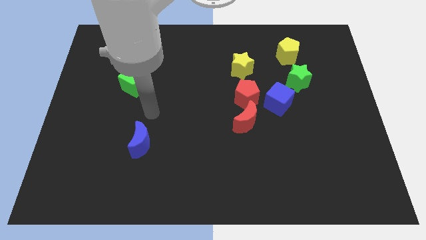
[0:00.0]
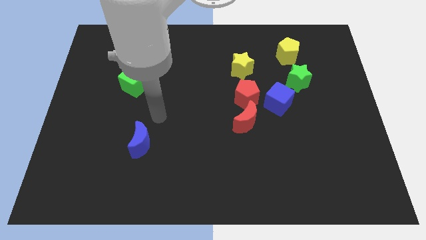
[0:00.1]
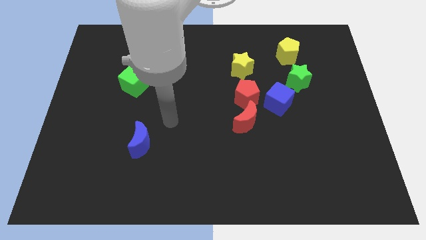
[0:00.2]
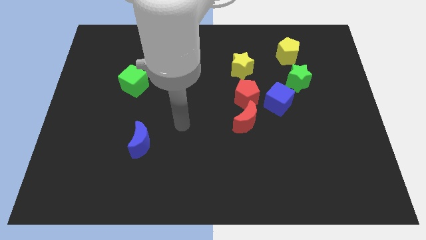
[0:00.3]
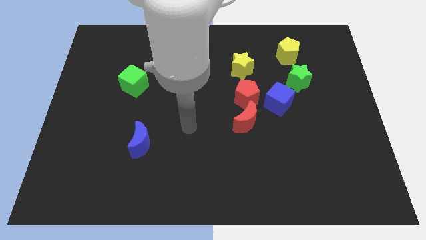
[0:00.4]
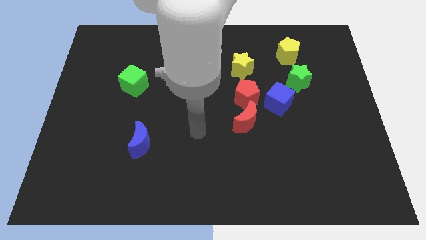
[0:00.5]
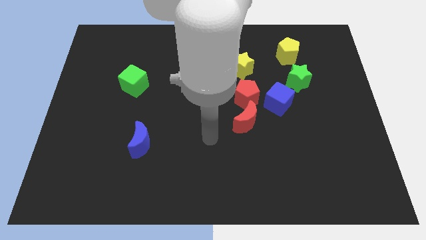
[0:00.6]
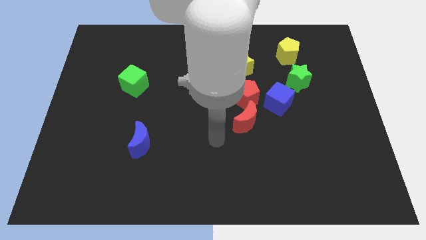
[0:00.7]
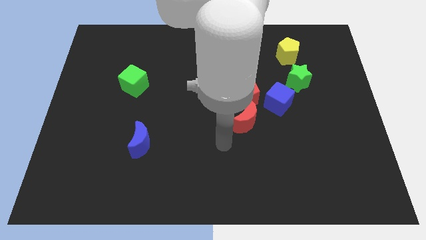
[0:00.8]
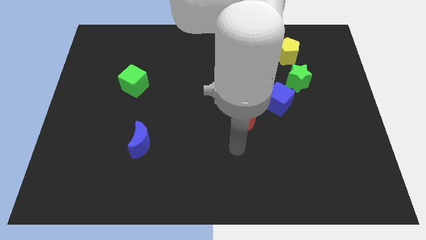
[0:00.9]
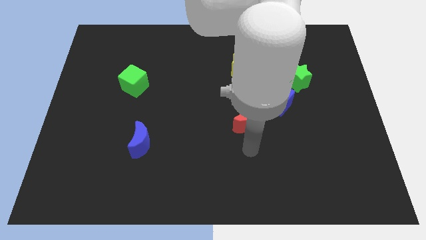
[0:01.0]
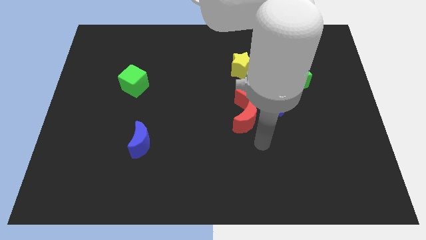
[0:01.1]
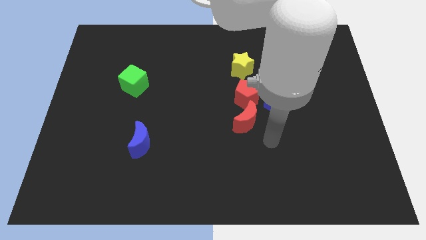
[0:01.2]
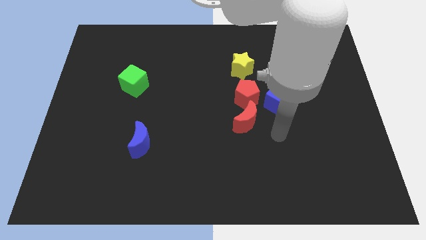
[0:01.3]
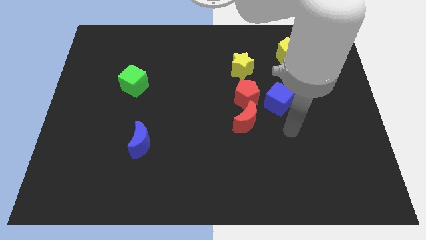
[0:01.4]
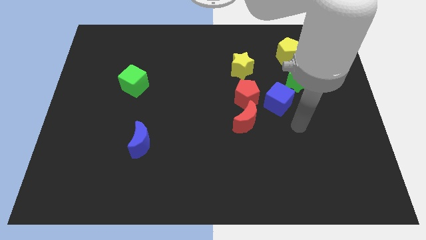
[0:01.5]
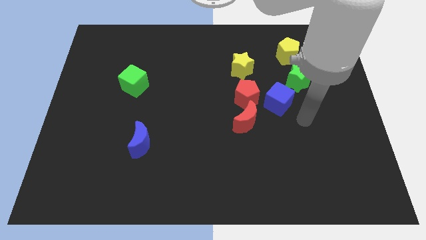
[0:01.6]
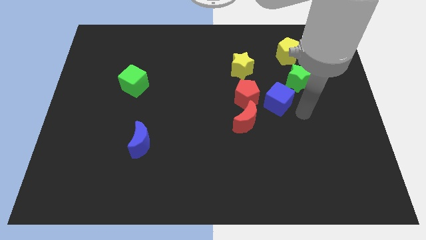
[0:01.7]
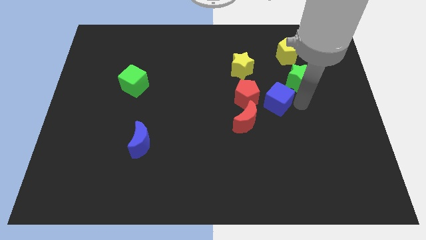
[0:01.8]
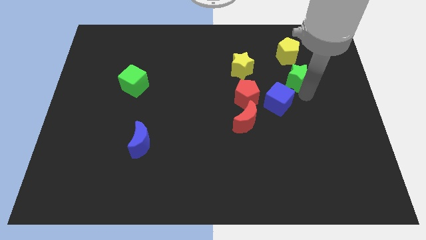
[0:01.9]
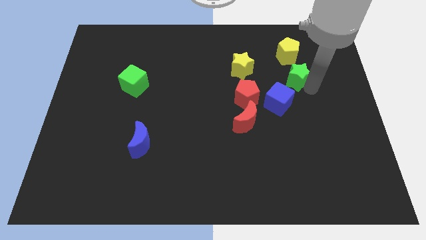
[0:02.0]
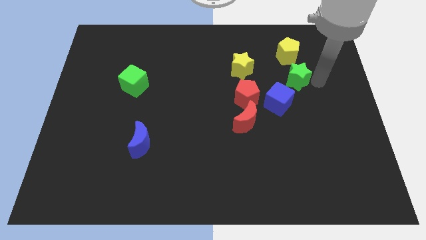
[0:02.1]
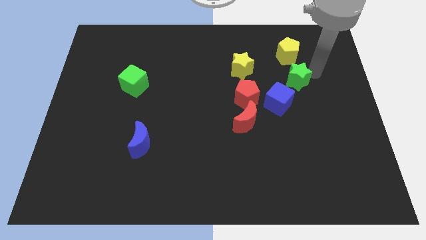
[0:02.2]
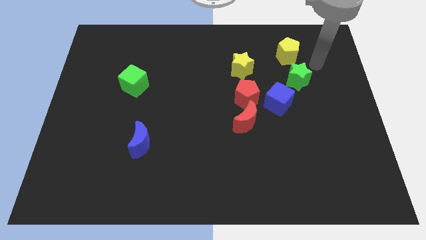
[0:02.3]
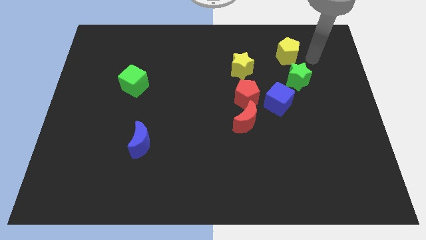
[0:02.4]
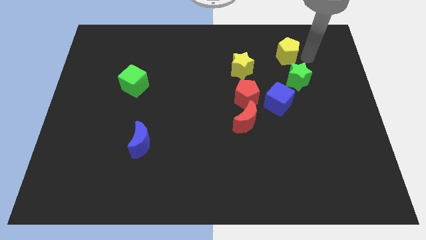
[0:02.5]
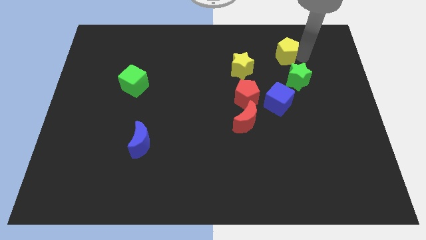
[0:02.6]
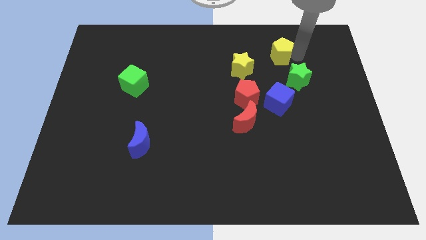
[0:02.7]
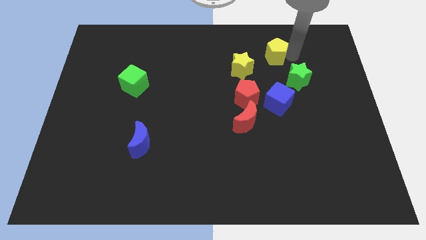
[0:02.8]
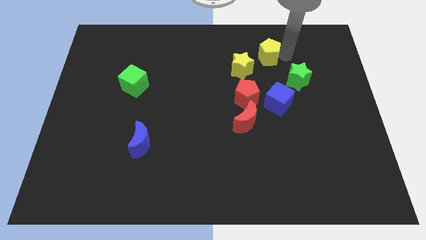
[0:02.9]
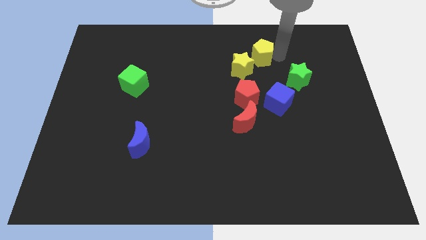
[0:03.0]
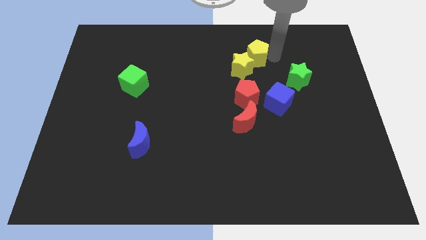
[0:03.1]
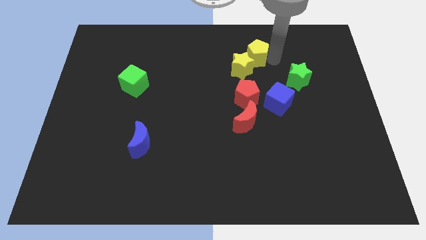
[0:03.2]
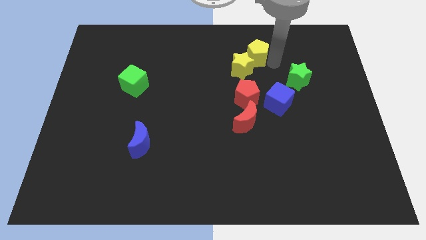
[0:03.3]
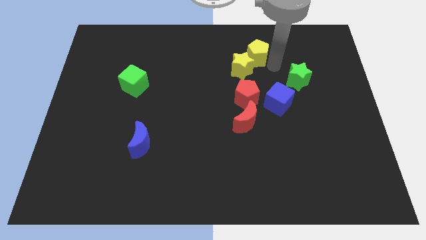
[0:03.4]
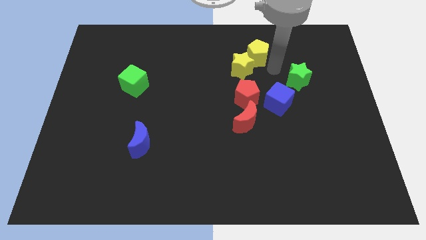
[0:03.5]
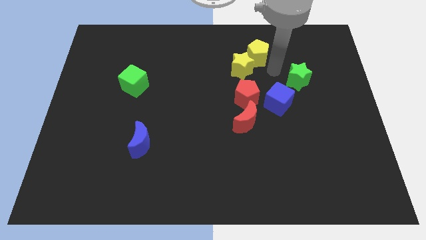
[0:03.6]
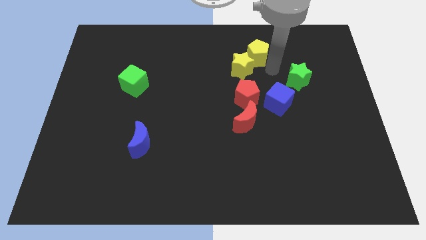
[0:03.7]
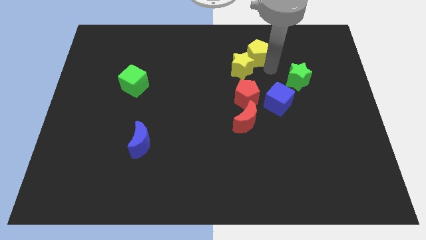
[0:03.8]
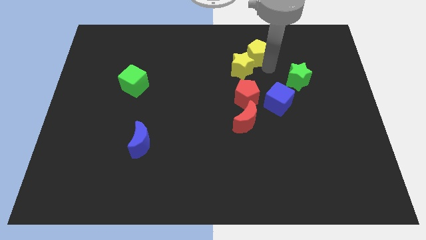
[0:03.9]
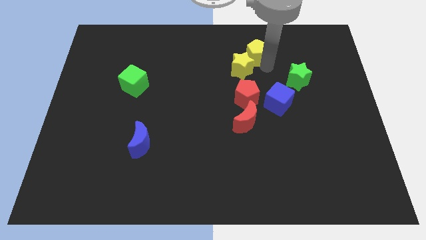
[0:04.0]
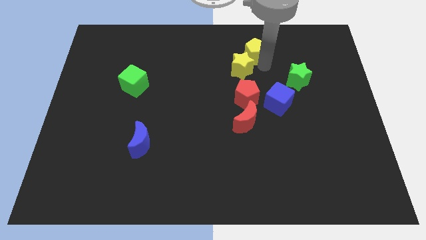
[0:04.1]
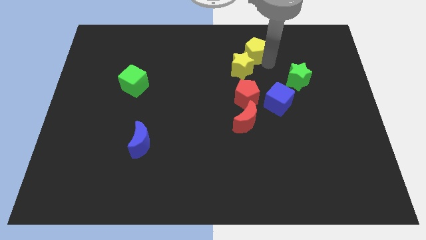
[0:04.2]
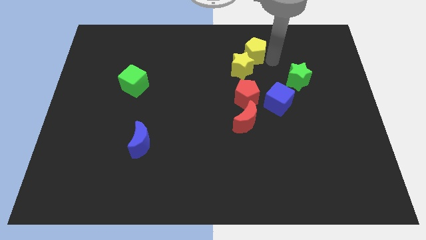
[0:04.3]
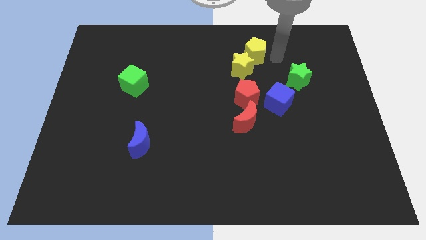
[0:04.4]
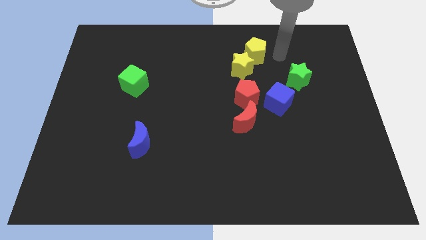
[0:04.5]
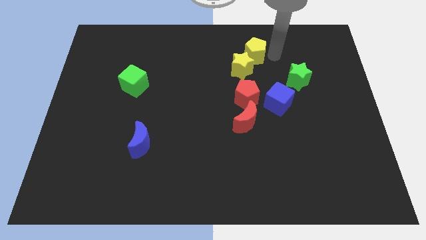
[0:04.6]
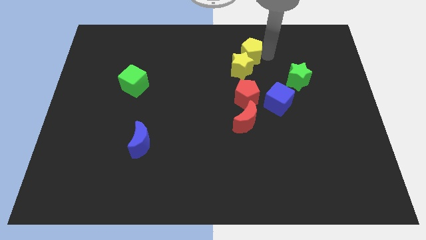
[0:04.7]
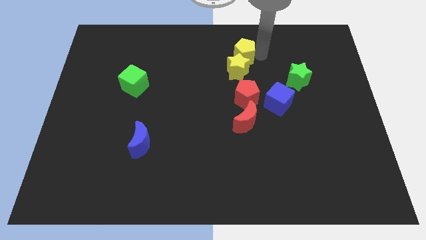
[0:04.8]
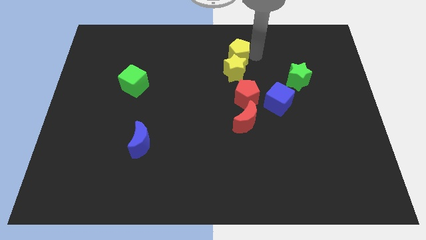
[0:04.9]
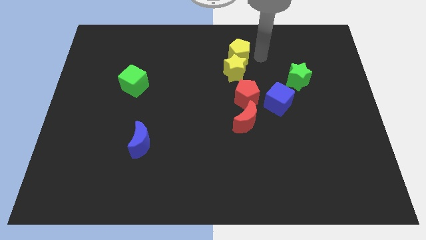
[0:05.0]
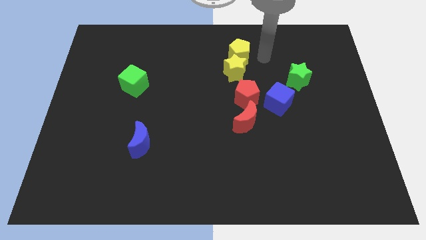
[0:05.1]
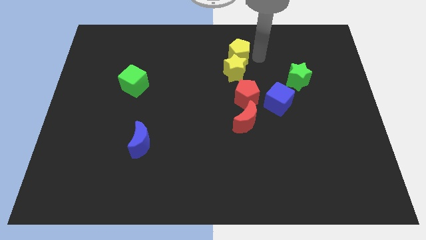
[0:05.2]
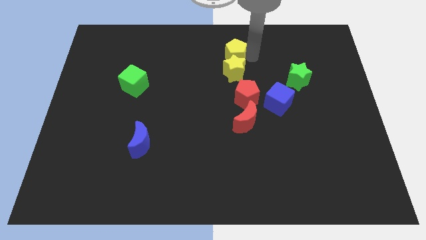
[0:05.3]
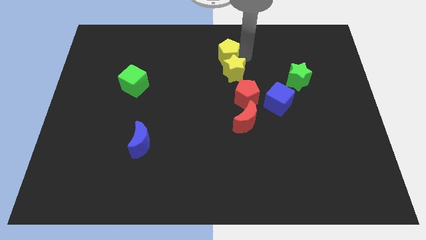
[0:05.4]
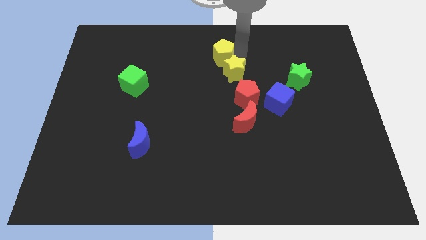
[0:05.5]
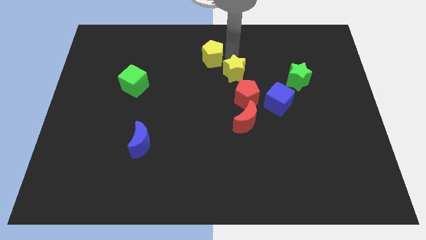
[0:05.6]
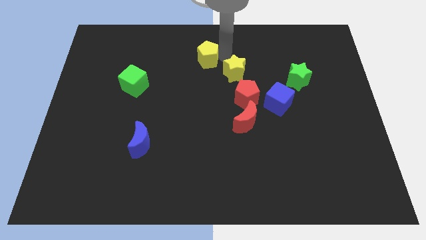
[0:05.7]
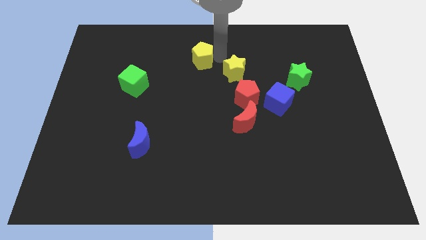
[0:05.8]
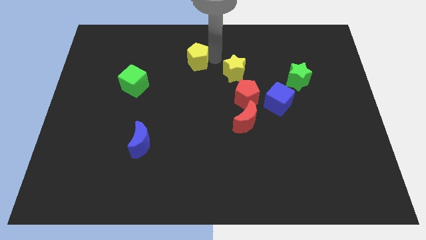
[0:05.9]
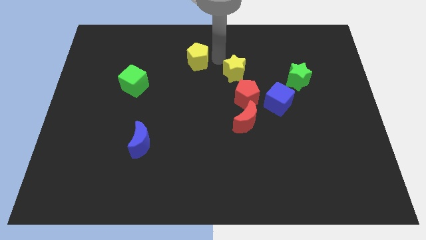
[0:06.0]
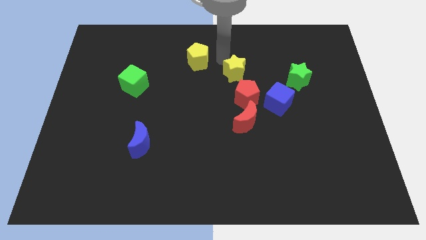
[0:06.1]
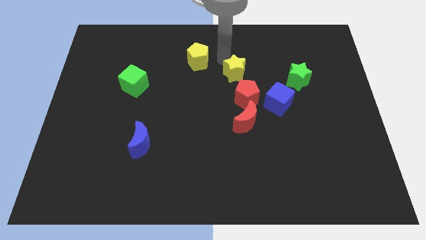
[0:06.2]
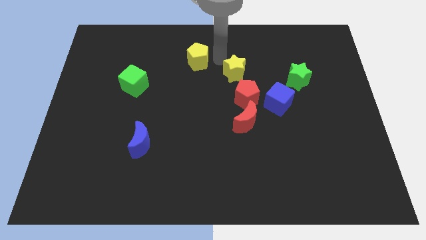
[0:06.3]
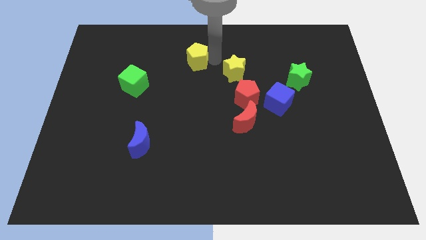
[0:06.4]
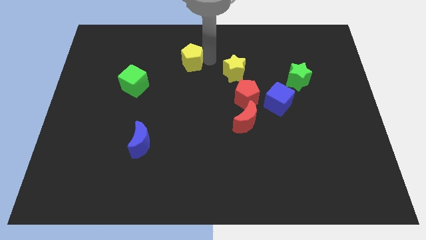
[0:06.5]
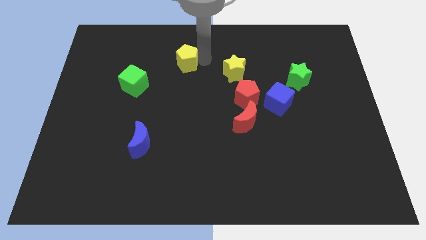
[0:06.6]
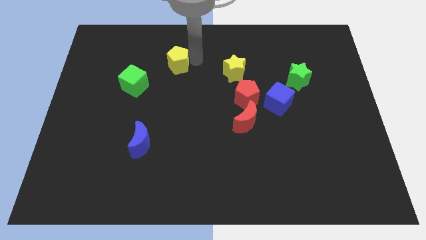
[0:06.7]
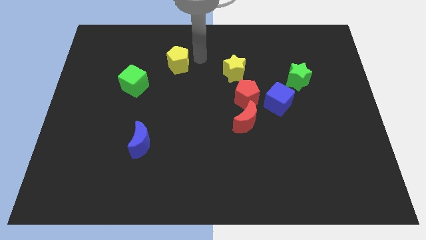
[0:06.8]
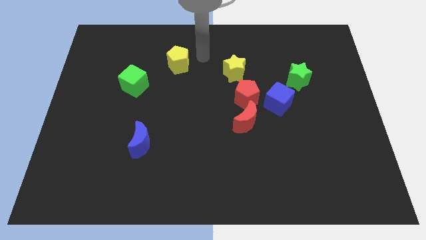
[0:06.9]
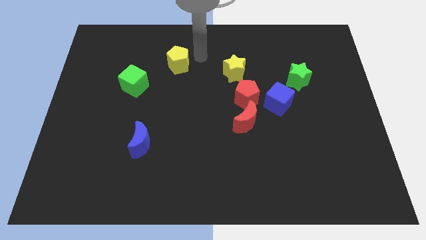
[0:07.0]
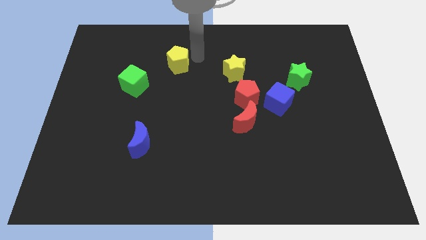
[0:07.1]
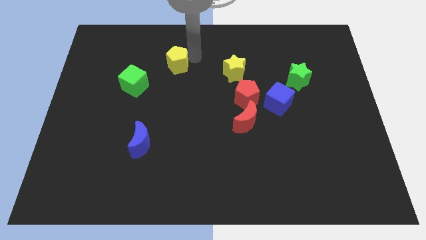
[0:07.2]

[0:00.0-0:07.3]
put the yellow pentagon to the top right of the green cube

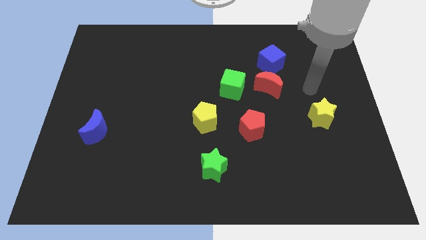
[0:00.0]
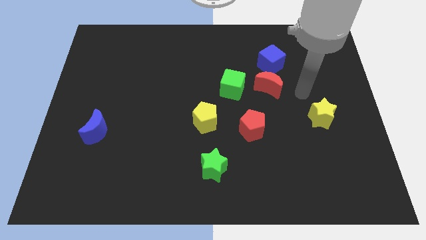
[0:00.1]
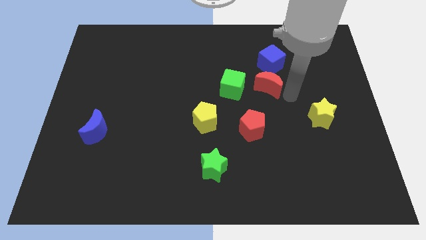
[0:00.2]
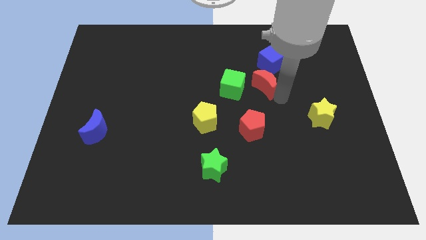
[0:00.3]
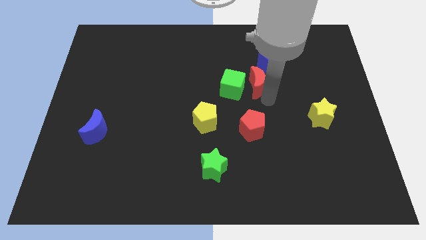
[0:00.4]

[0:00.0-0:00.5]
slide the green cube diagonally up and to the left of the red moon
